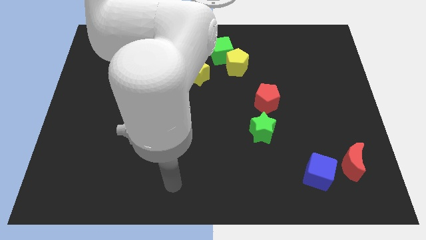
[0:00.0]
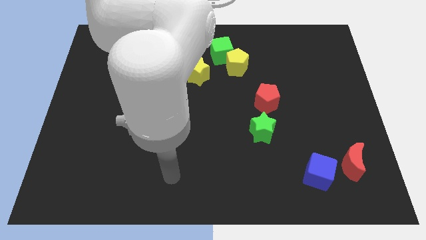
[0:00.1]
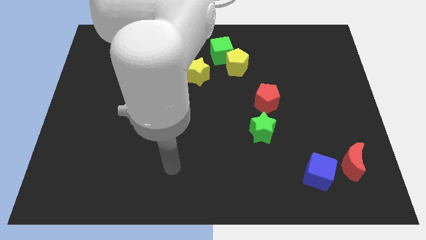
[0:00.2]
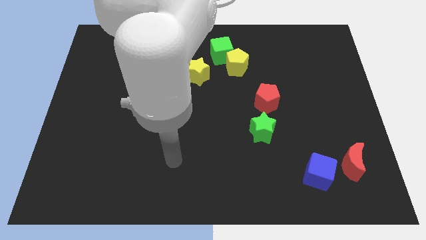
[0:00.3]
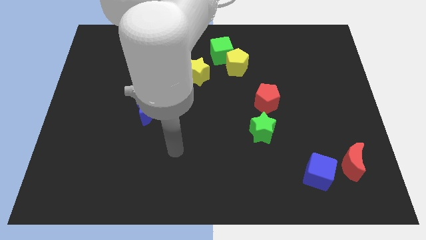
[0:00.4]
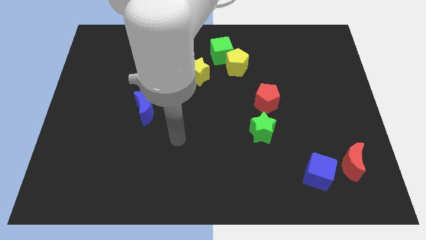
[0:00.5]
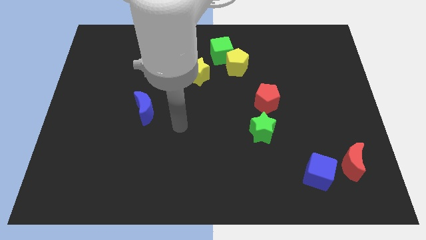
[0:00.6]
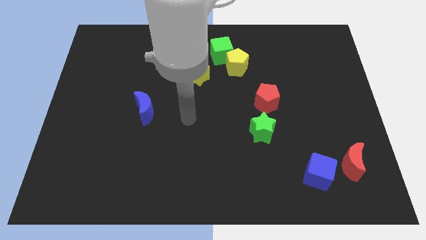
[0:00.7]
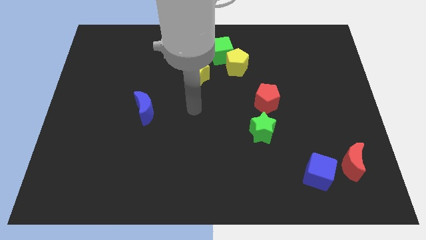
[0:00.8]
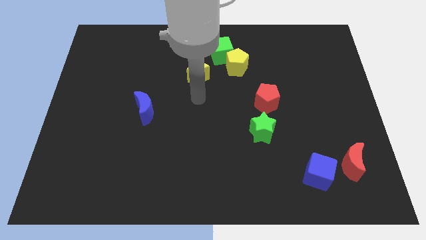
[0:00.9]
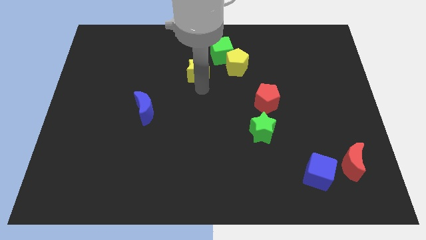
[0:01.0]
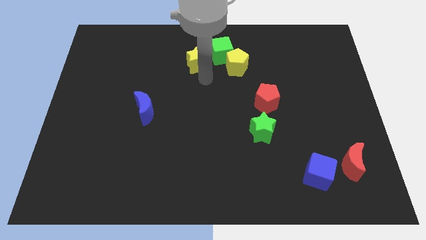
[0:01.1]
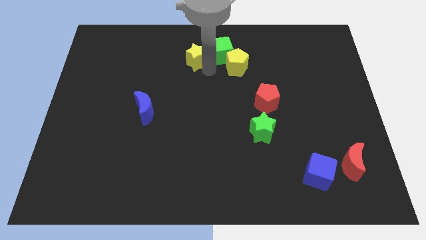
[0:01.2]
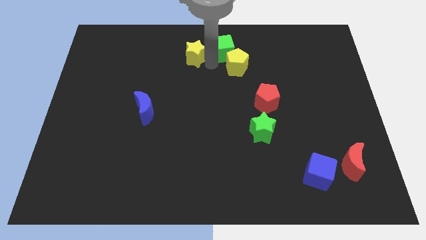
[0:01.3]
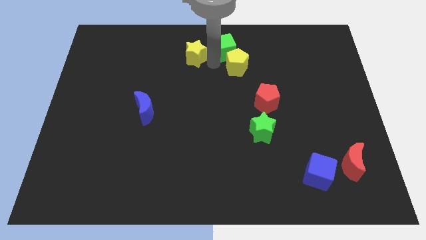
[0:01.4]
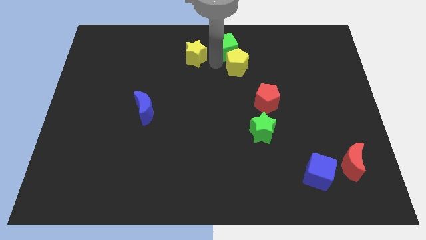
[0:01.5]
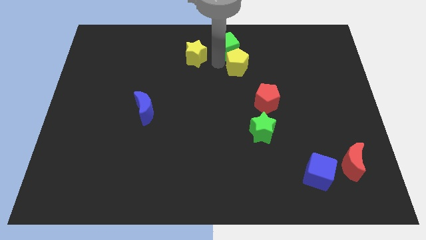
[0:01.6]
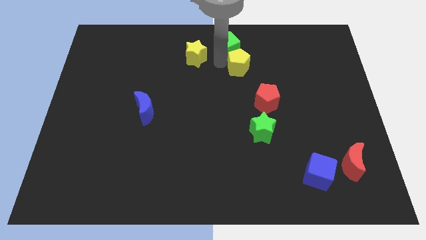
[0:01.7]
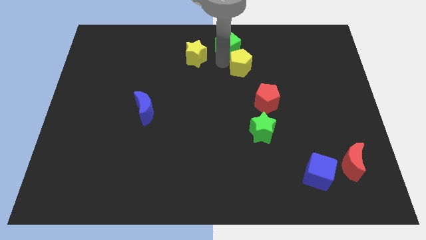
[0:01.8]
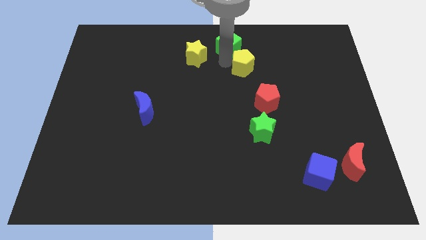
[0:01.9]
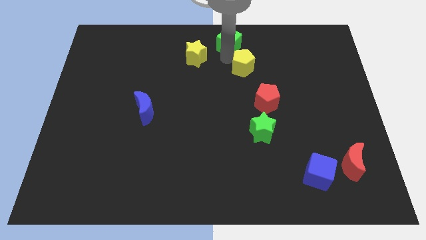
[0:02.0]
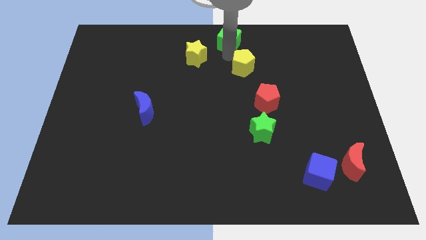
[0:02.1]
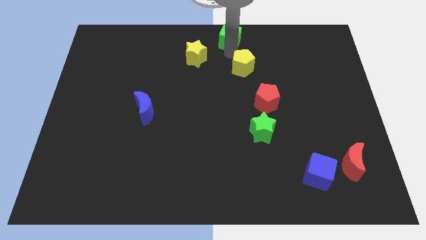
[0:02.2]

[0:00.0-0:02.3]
move the yellow pentagon away from the green cube

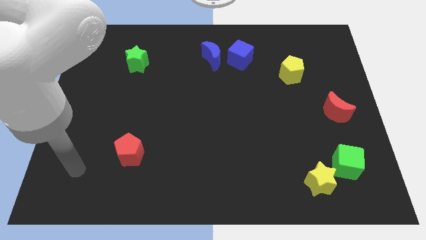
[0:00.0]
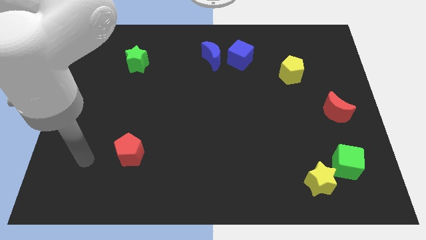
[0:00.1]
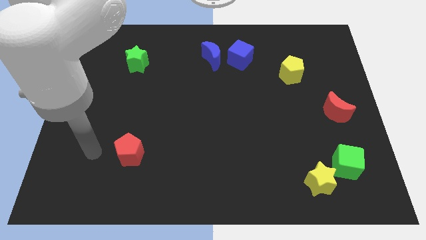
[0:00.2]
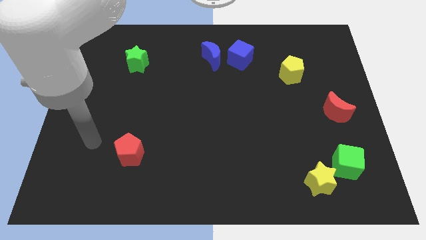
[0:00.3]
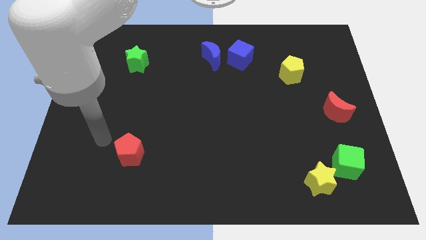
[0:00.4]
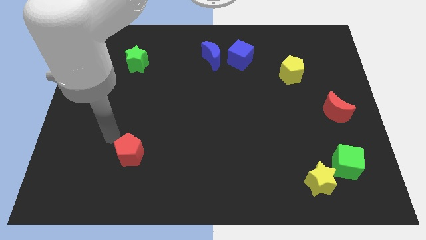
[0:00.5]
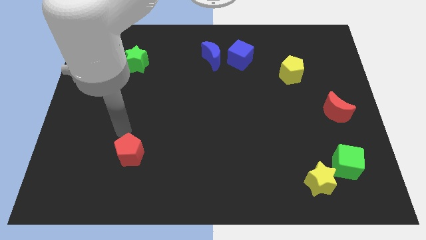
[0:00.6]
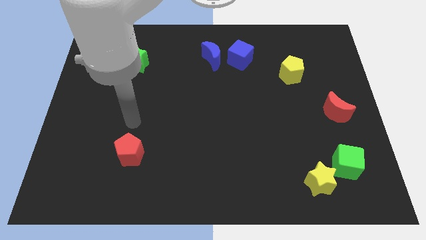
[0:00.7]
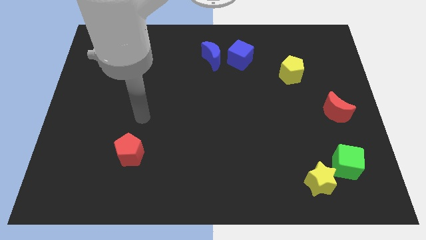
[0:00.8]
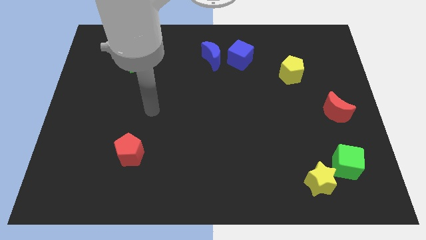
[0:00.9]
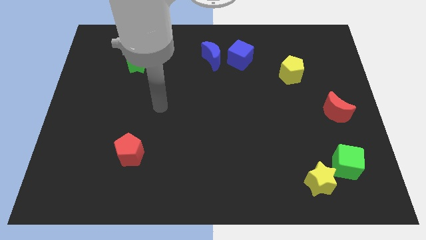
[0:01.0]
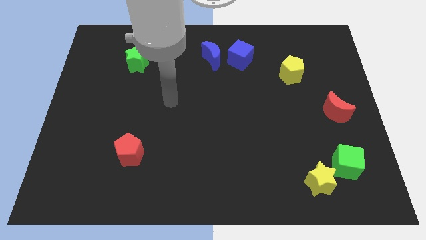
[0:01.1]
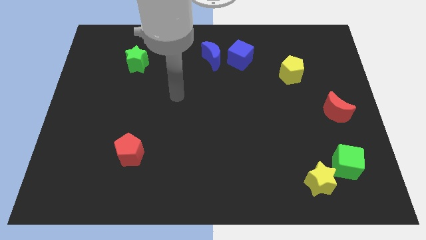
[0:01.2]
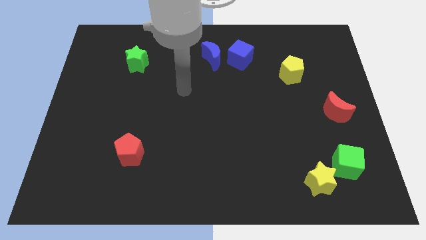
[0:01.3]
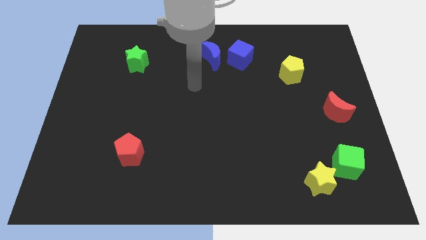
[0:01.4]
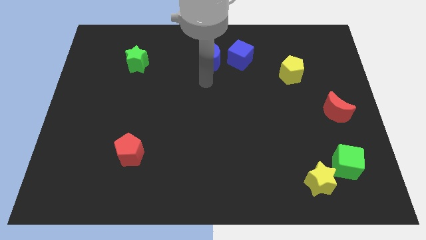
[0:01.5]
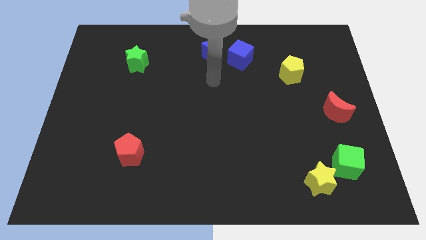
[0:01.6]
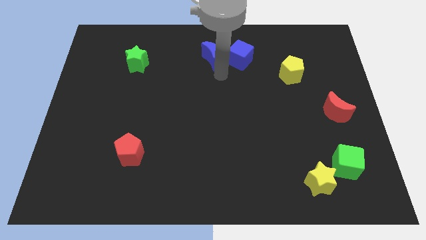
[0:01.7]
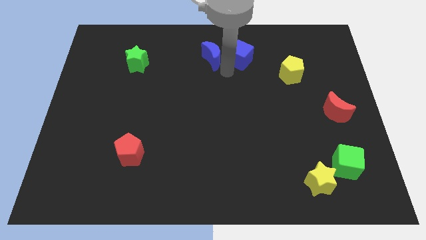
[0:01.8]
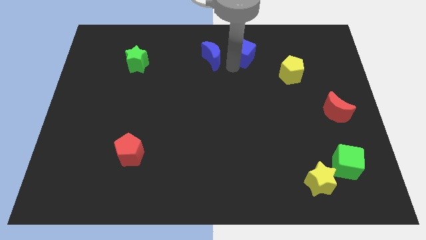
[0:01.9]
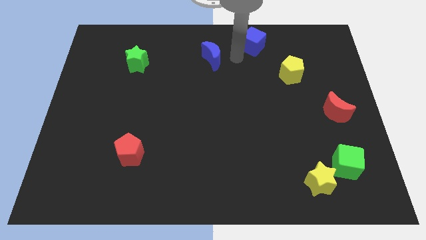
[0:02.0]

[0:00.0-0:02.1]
pull the blue moon apart from the blue cube

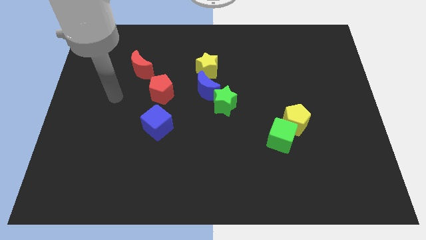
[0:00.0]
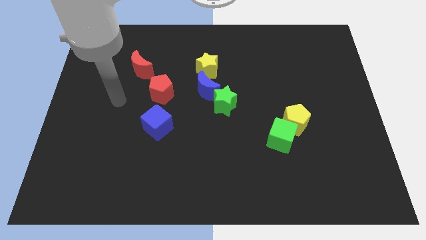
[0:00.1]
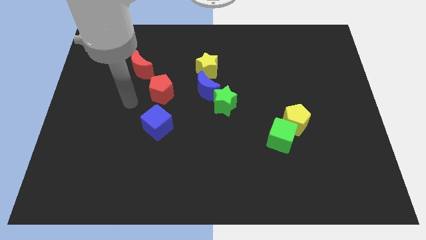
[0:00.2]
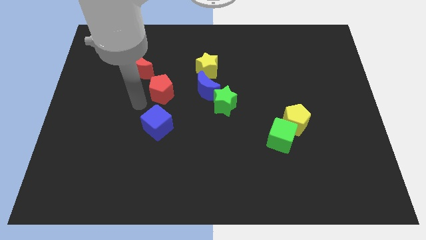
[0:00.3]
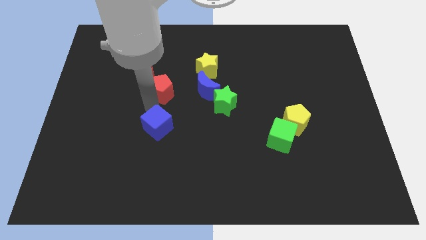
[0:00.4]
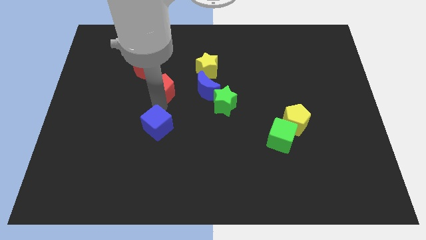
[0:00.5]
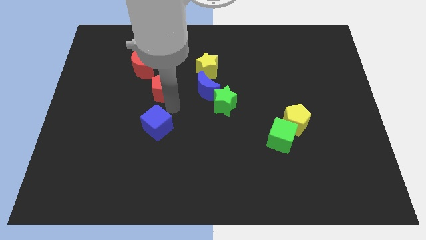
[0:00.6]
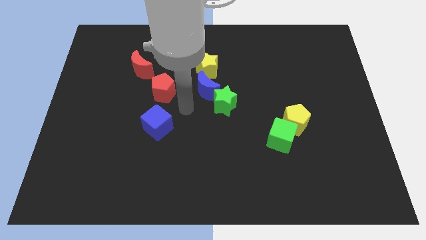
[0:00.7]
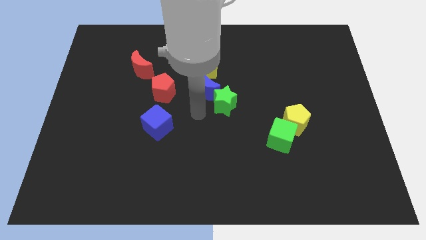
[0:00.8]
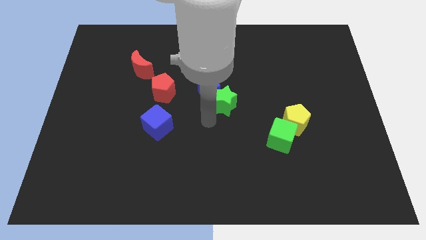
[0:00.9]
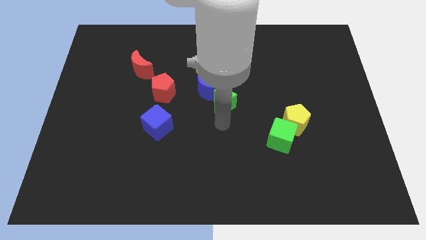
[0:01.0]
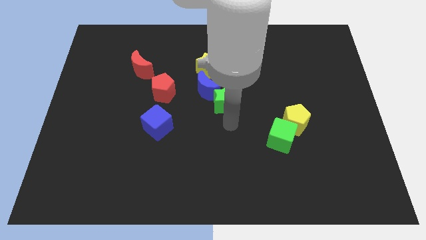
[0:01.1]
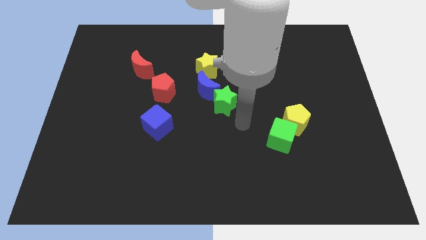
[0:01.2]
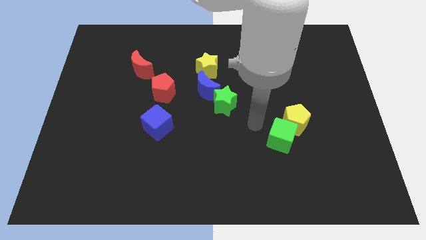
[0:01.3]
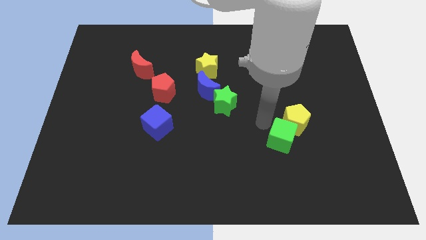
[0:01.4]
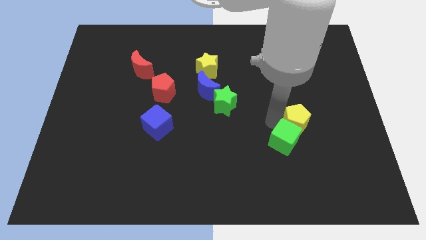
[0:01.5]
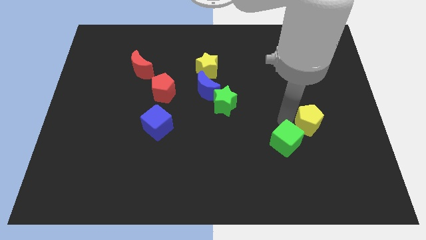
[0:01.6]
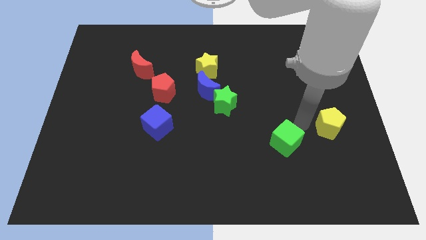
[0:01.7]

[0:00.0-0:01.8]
separate the green cube from the yellow pentagon

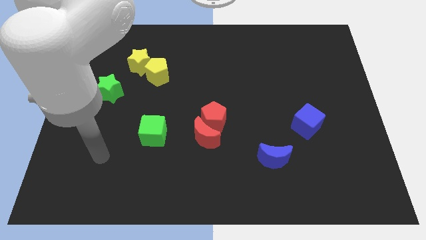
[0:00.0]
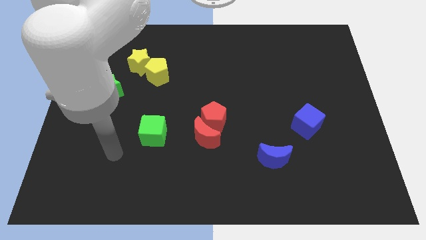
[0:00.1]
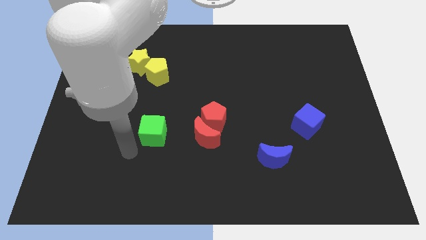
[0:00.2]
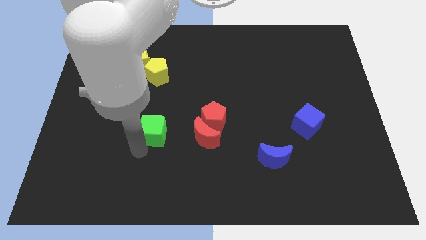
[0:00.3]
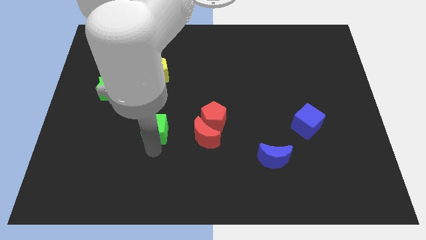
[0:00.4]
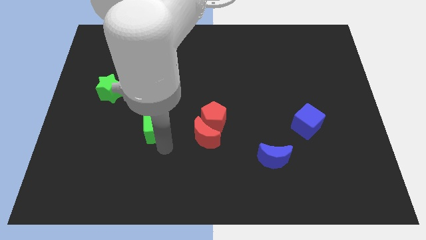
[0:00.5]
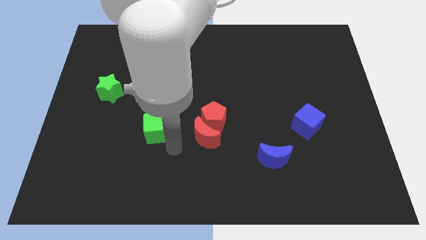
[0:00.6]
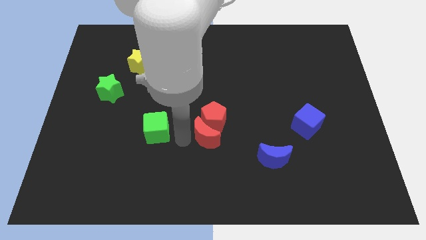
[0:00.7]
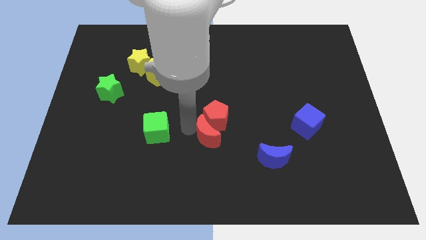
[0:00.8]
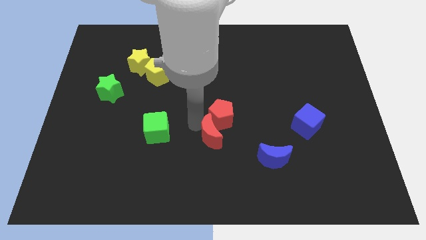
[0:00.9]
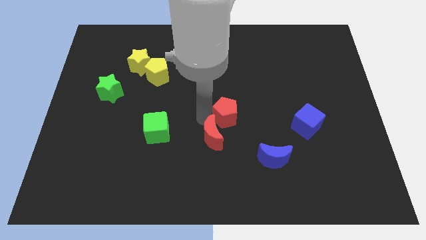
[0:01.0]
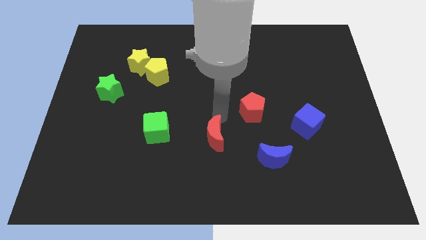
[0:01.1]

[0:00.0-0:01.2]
move the red moon away from the red pentagon

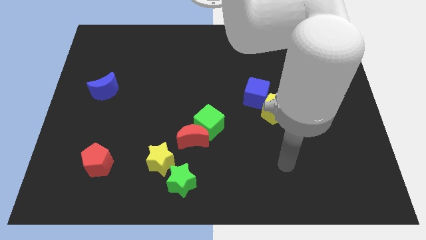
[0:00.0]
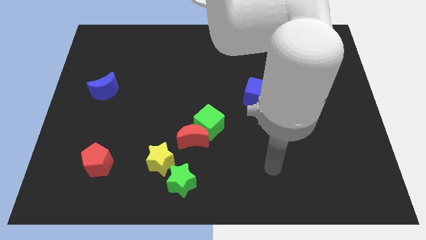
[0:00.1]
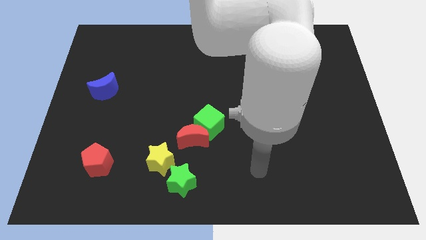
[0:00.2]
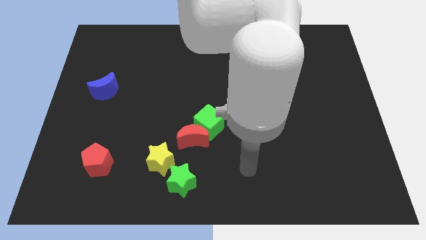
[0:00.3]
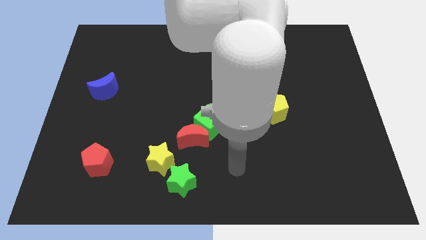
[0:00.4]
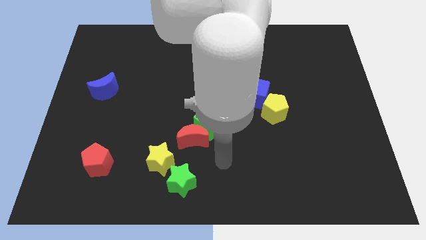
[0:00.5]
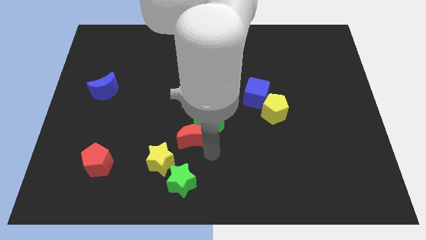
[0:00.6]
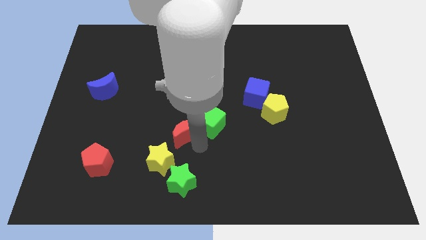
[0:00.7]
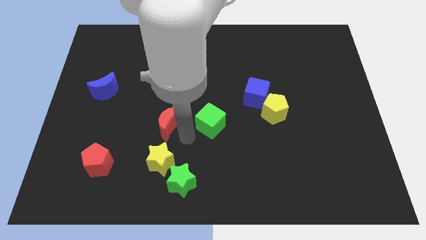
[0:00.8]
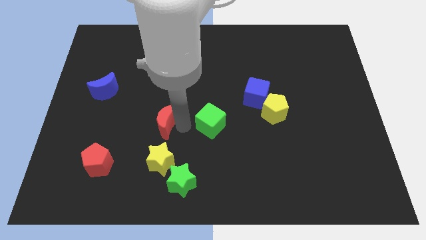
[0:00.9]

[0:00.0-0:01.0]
pull the green cube apart from the red moon

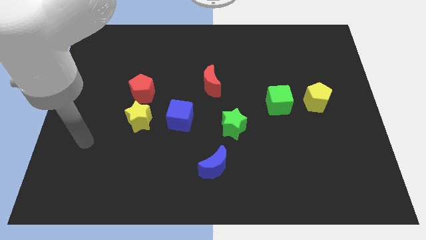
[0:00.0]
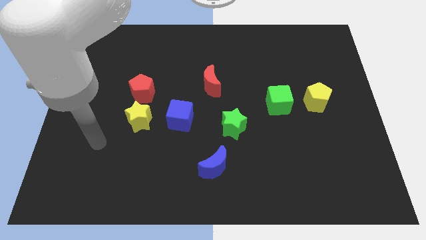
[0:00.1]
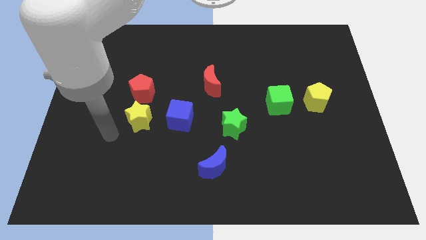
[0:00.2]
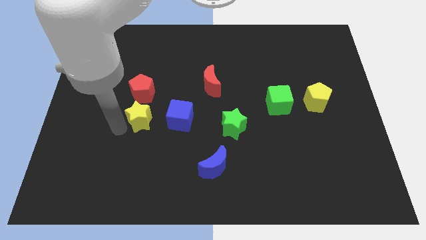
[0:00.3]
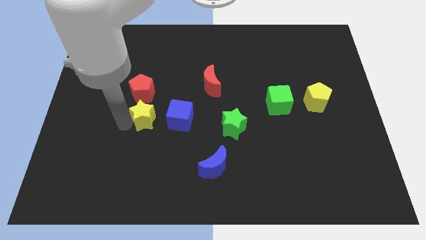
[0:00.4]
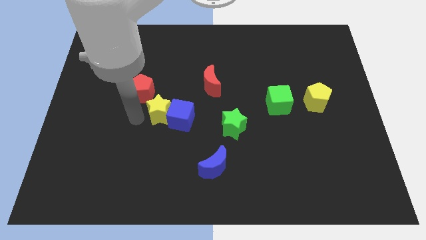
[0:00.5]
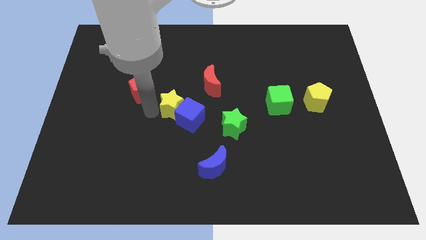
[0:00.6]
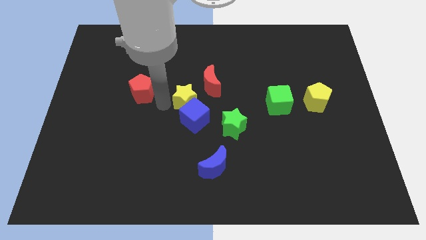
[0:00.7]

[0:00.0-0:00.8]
move the red pentagon away from the yellow star

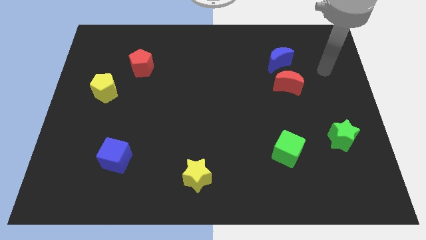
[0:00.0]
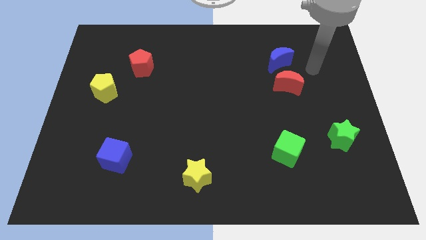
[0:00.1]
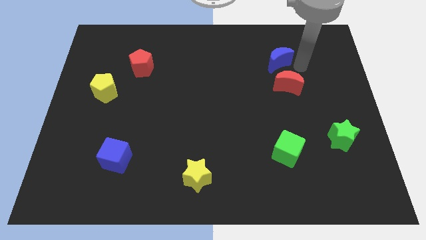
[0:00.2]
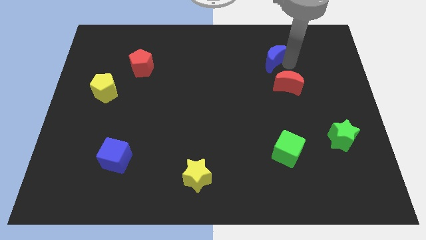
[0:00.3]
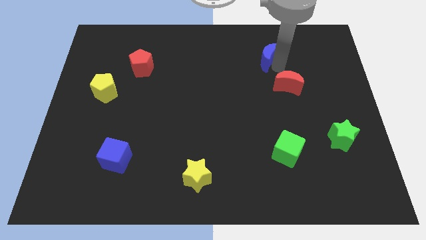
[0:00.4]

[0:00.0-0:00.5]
separate the red moon from the blue moon
